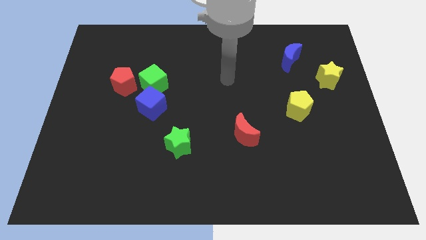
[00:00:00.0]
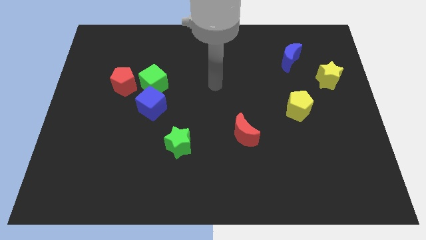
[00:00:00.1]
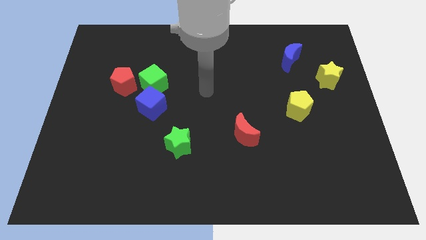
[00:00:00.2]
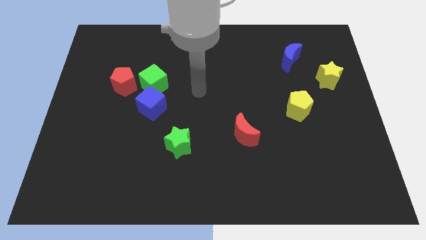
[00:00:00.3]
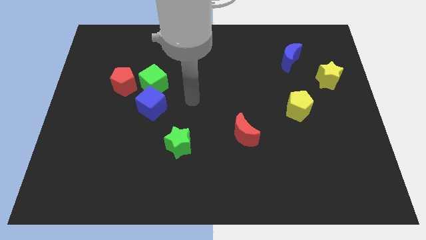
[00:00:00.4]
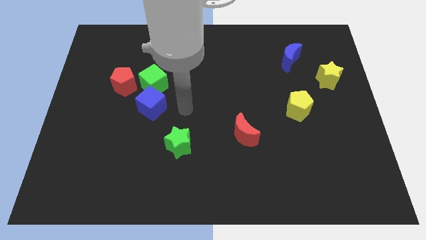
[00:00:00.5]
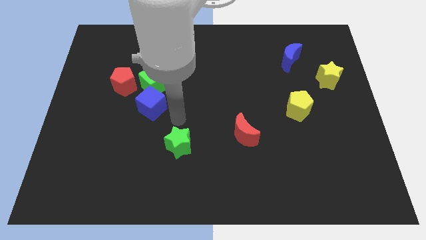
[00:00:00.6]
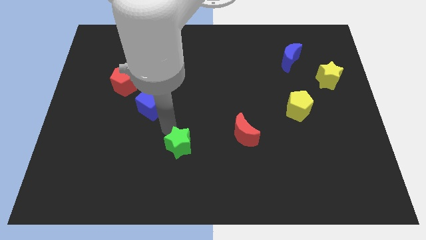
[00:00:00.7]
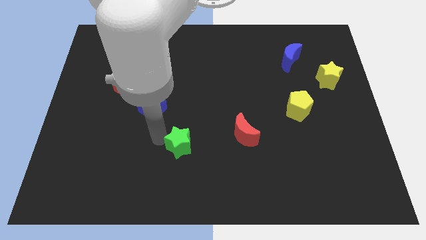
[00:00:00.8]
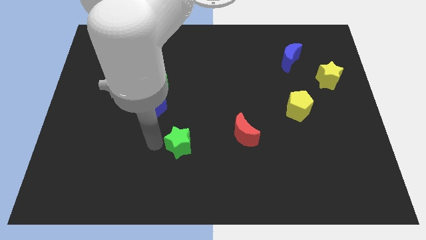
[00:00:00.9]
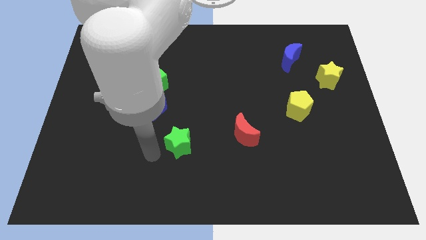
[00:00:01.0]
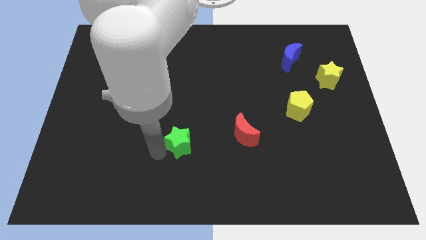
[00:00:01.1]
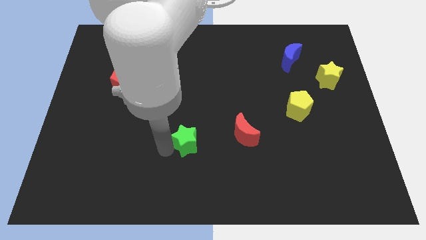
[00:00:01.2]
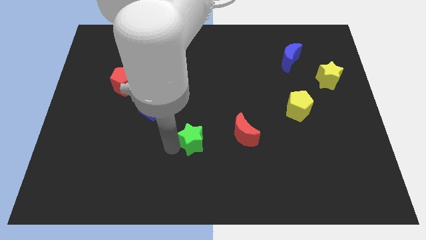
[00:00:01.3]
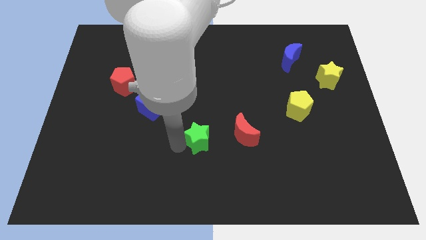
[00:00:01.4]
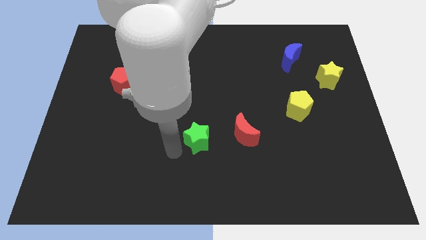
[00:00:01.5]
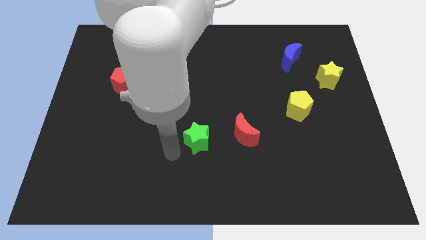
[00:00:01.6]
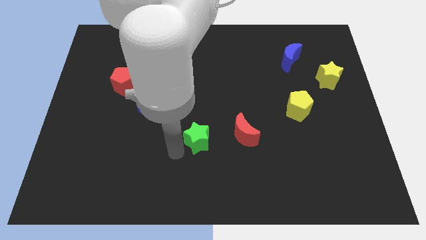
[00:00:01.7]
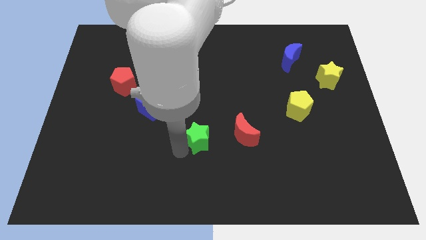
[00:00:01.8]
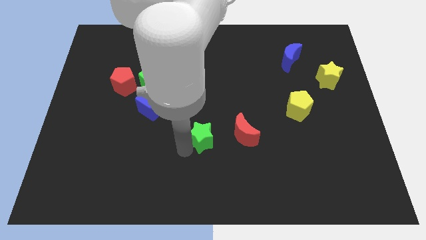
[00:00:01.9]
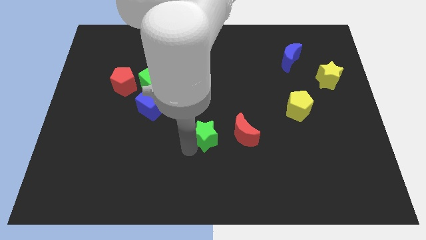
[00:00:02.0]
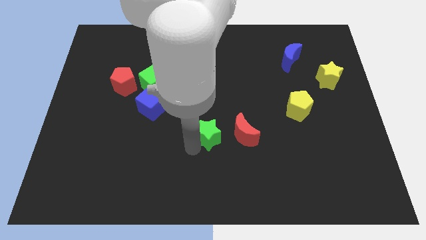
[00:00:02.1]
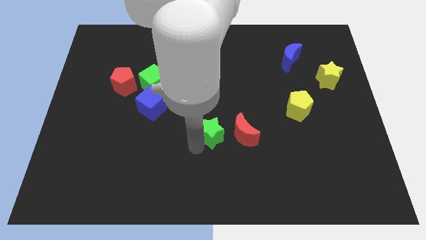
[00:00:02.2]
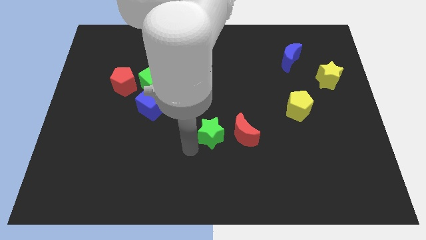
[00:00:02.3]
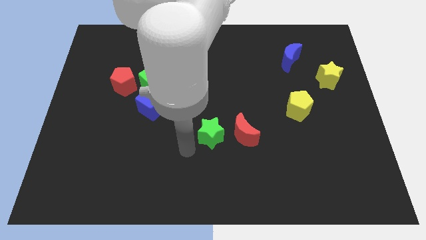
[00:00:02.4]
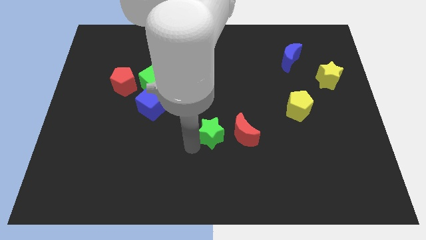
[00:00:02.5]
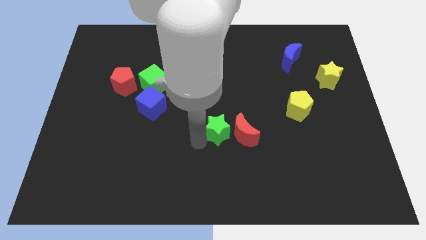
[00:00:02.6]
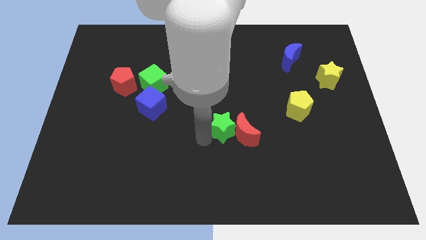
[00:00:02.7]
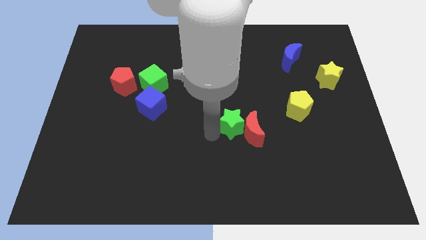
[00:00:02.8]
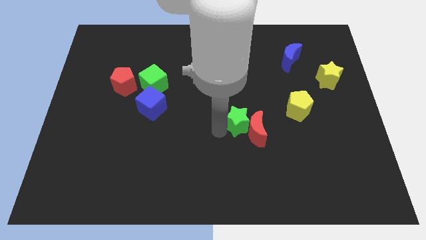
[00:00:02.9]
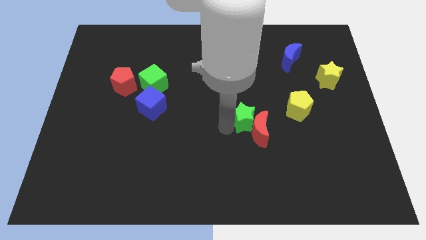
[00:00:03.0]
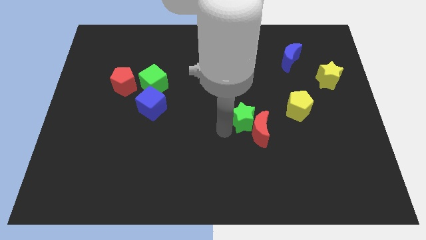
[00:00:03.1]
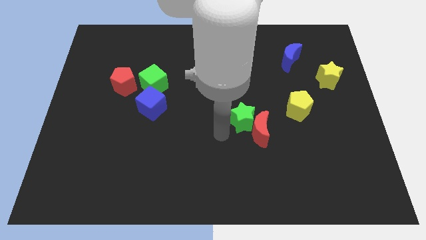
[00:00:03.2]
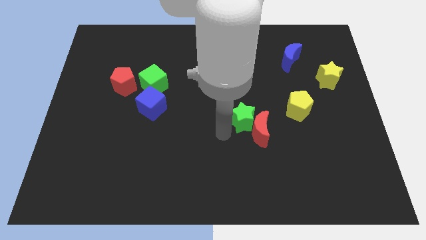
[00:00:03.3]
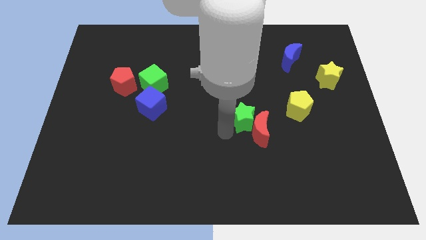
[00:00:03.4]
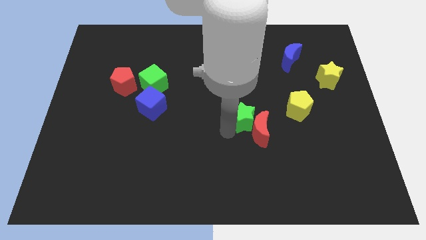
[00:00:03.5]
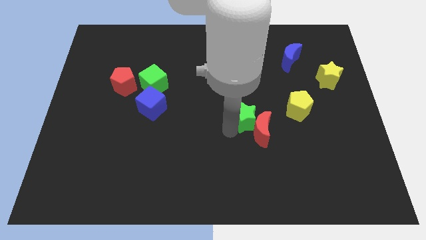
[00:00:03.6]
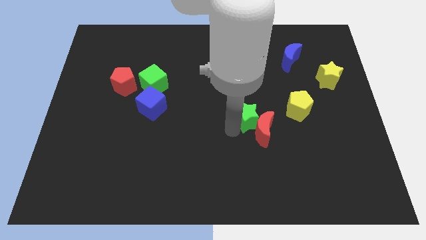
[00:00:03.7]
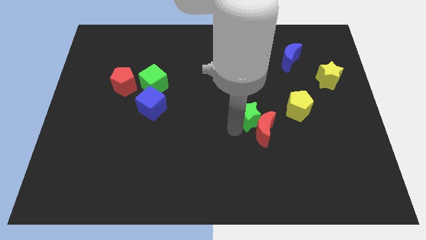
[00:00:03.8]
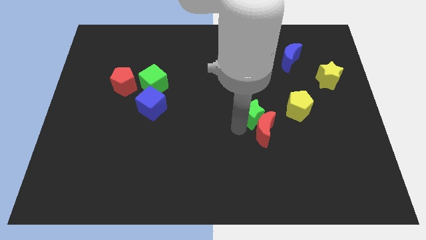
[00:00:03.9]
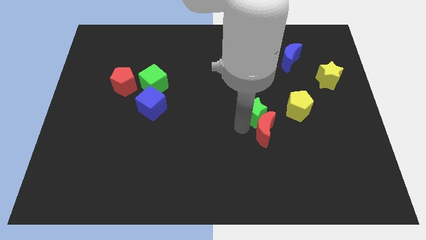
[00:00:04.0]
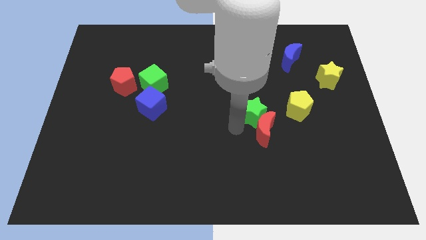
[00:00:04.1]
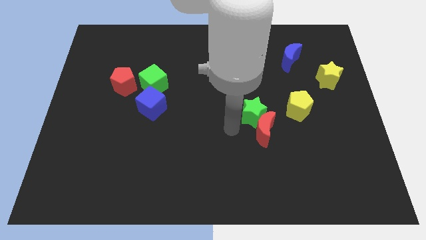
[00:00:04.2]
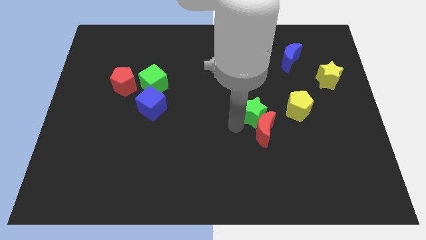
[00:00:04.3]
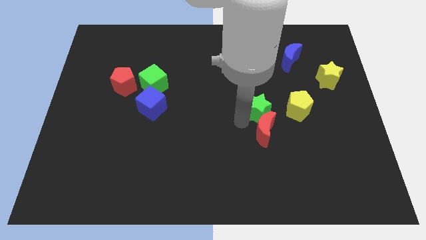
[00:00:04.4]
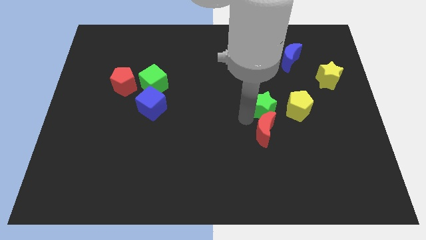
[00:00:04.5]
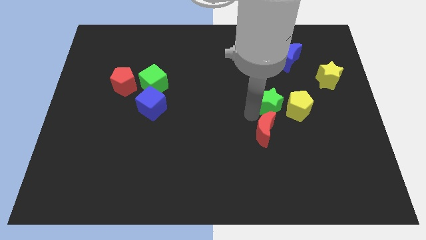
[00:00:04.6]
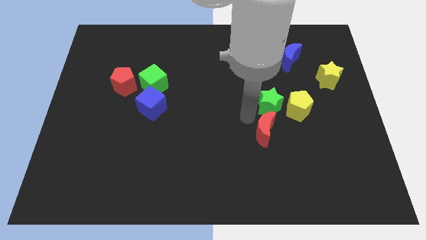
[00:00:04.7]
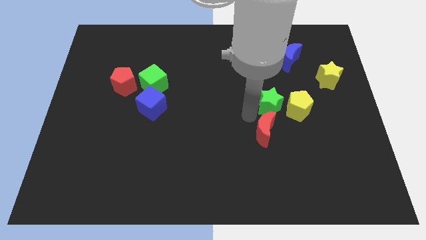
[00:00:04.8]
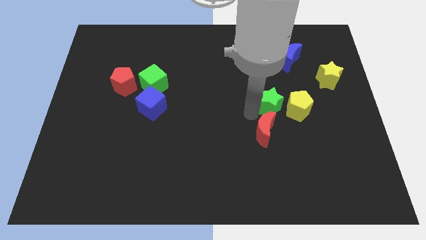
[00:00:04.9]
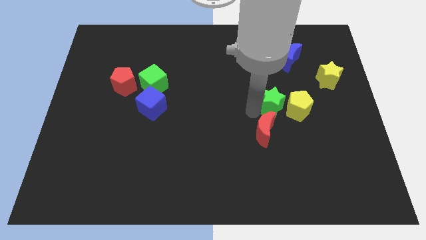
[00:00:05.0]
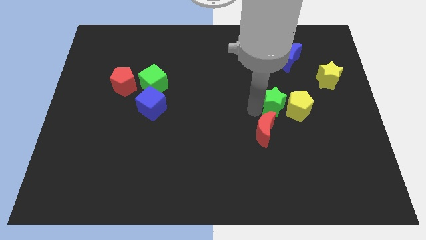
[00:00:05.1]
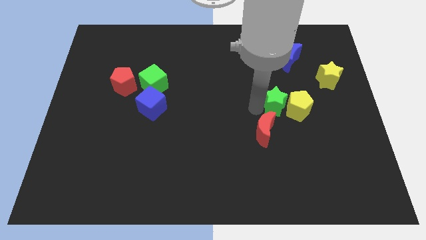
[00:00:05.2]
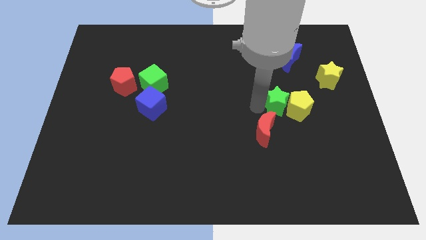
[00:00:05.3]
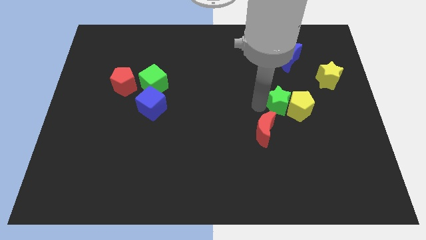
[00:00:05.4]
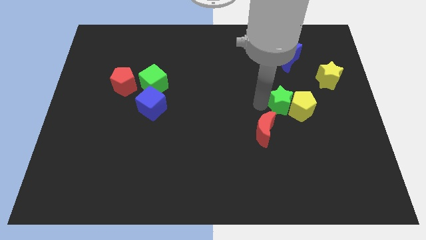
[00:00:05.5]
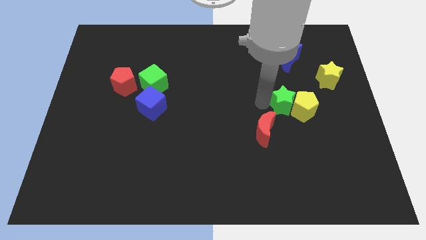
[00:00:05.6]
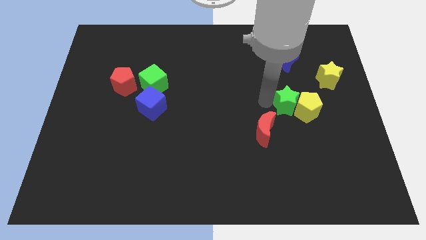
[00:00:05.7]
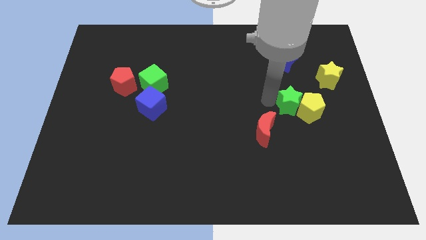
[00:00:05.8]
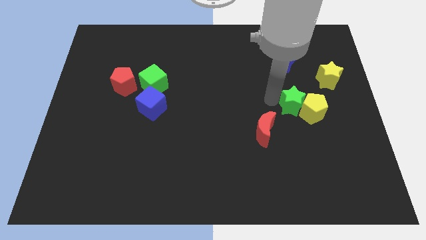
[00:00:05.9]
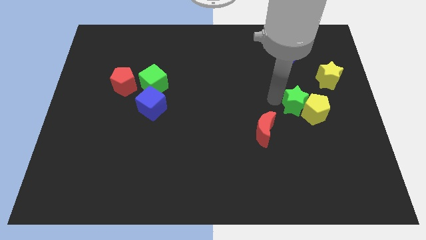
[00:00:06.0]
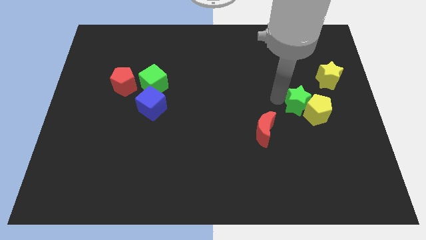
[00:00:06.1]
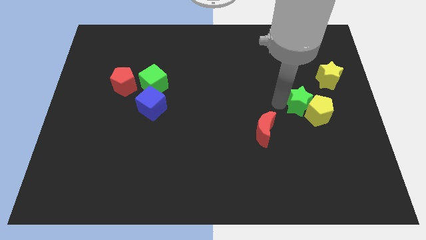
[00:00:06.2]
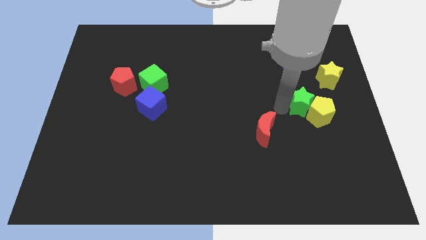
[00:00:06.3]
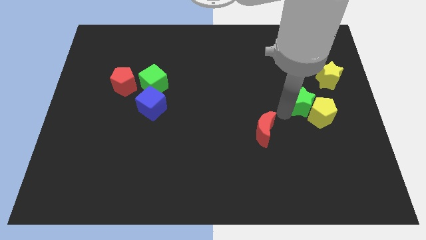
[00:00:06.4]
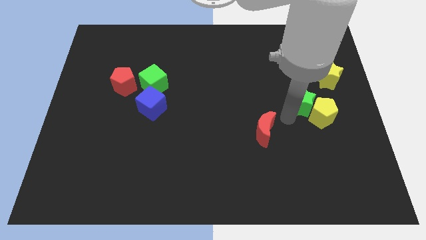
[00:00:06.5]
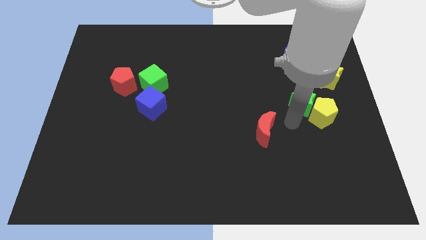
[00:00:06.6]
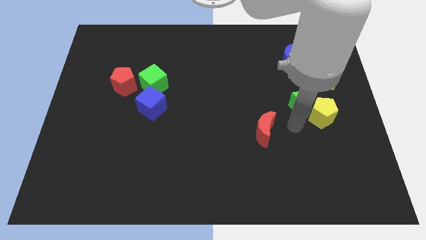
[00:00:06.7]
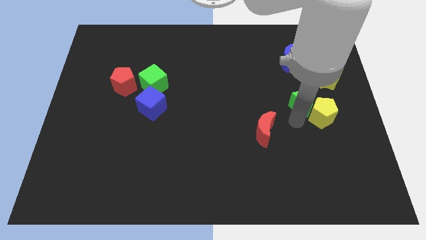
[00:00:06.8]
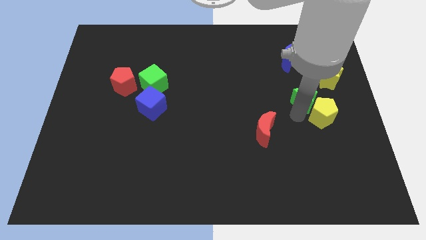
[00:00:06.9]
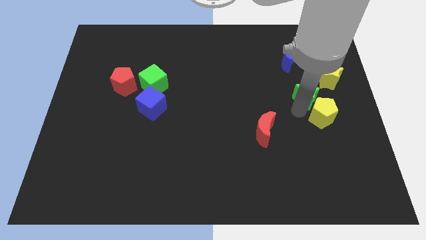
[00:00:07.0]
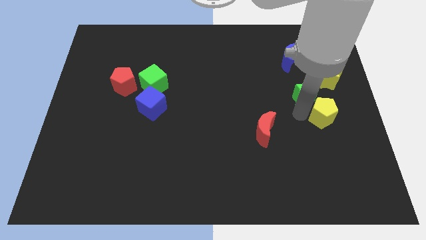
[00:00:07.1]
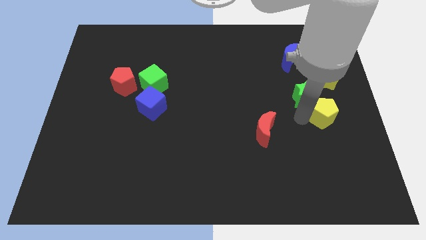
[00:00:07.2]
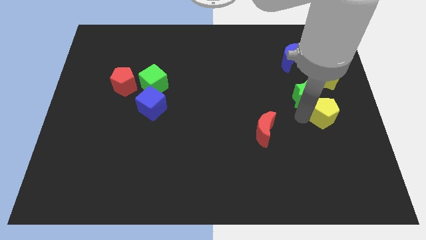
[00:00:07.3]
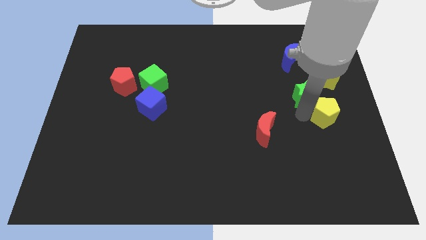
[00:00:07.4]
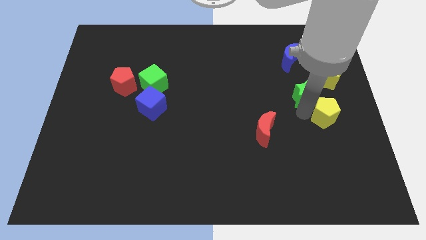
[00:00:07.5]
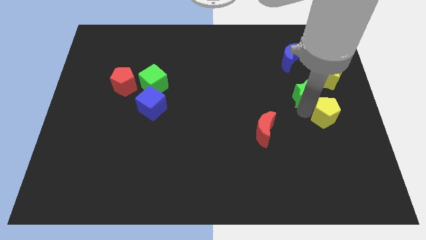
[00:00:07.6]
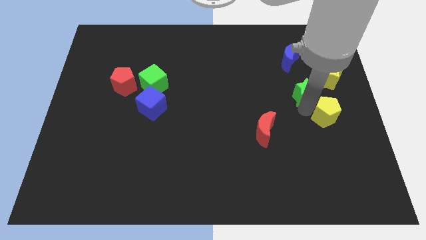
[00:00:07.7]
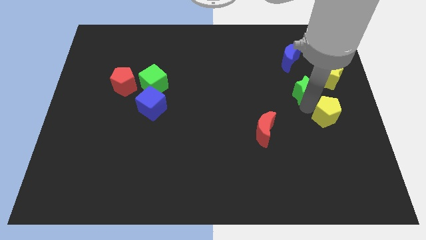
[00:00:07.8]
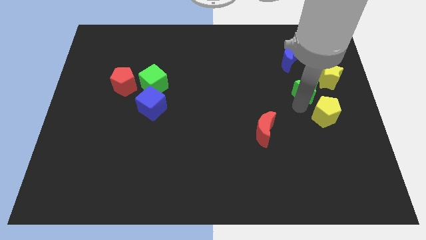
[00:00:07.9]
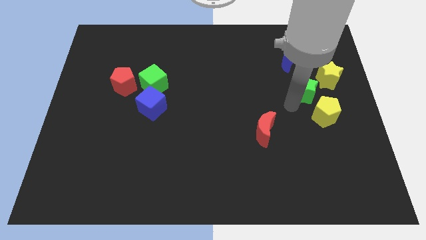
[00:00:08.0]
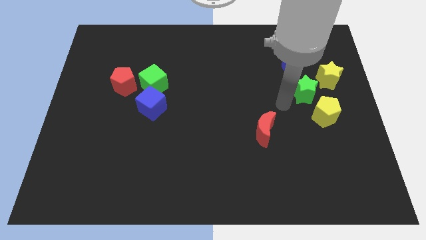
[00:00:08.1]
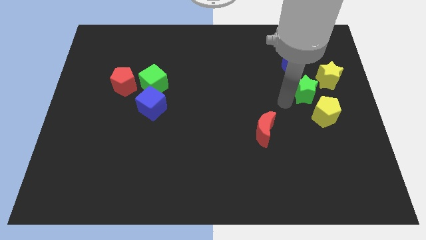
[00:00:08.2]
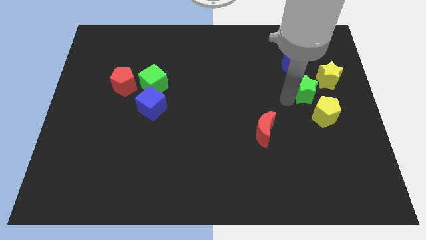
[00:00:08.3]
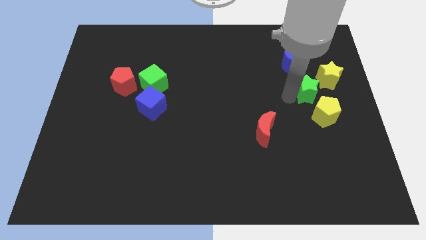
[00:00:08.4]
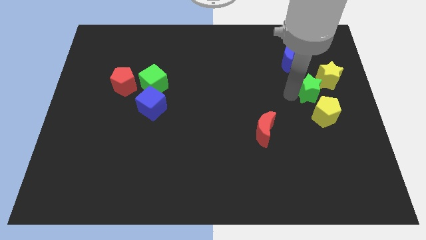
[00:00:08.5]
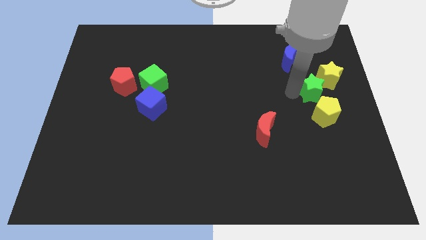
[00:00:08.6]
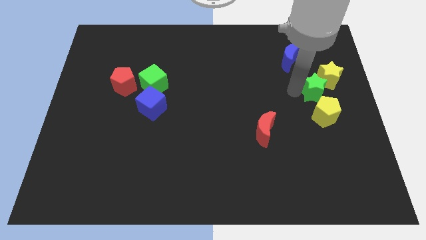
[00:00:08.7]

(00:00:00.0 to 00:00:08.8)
slide the green star close to the yellow star
